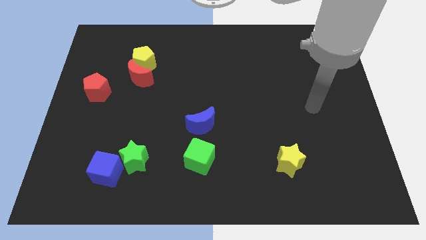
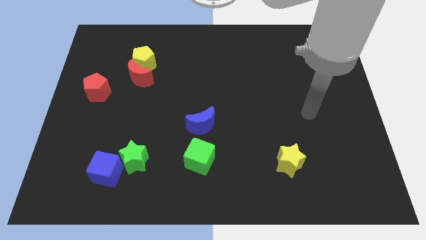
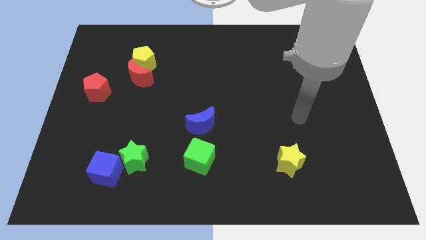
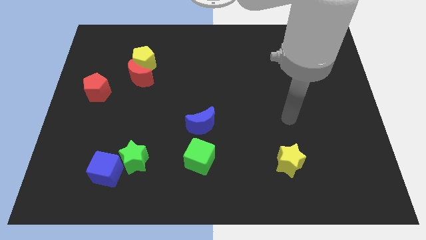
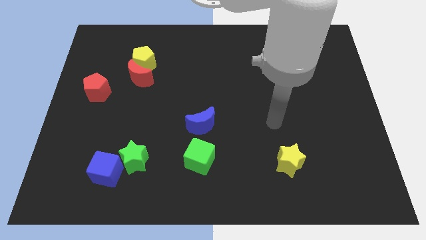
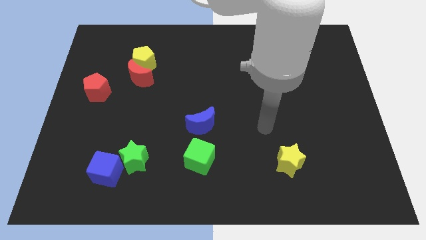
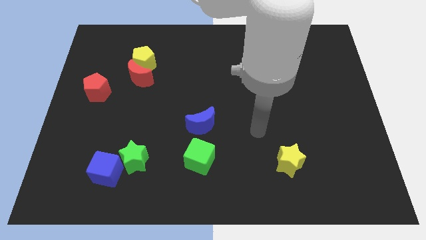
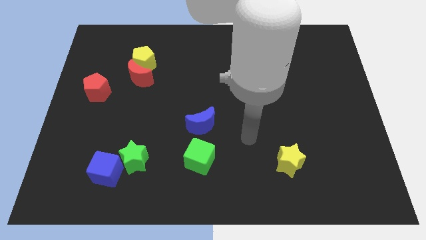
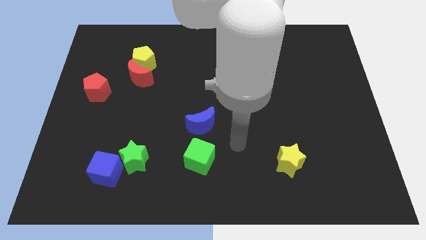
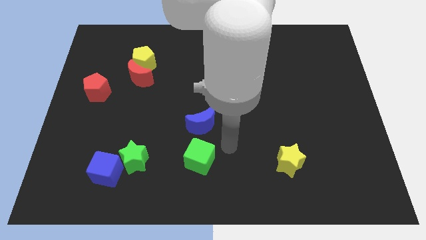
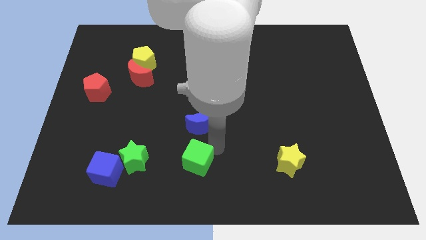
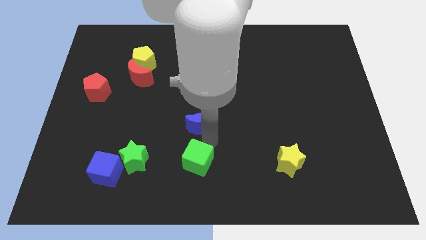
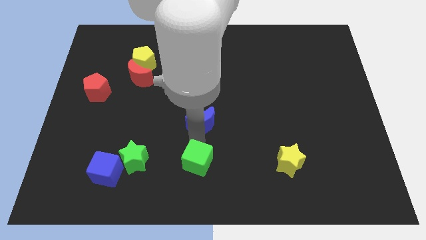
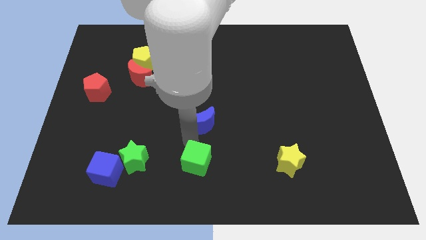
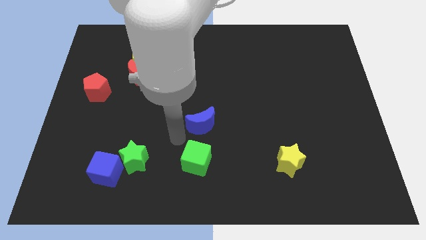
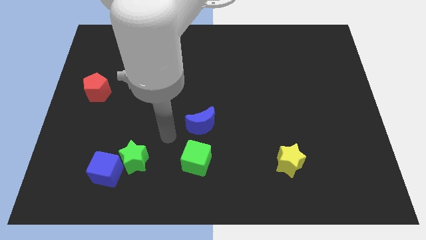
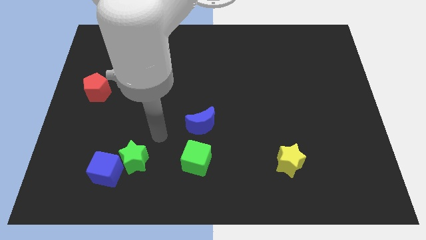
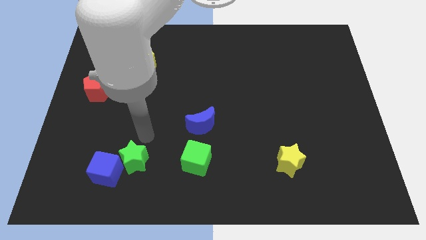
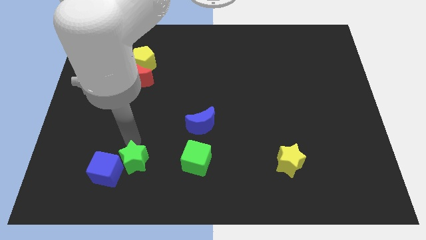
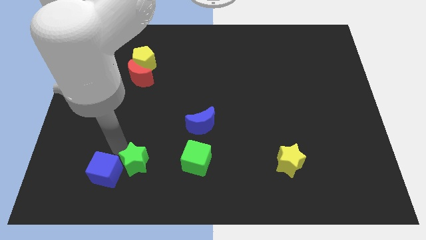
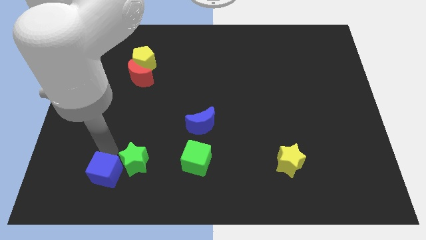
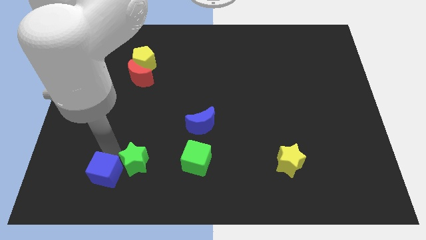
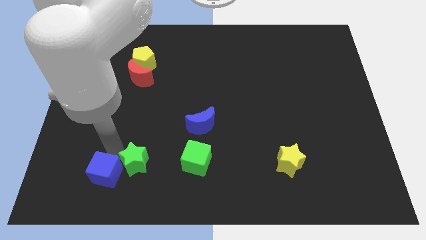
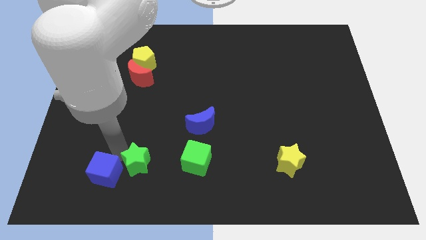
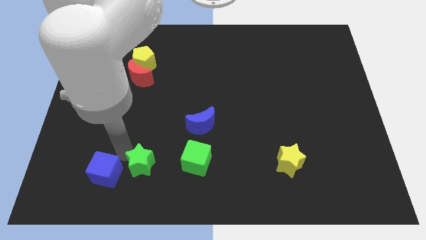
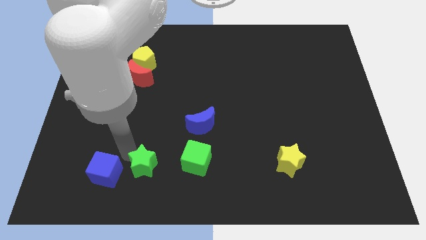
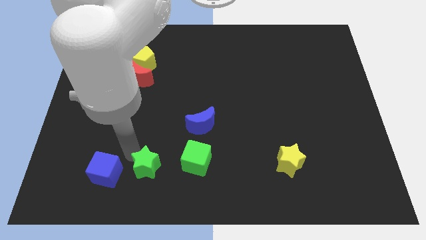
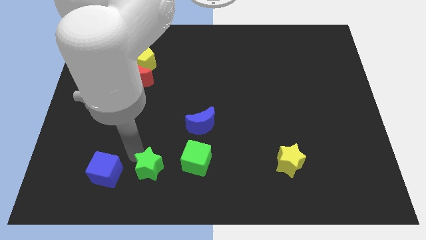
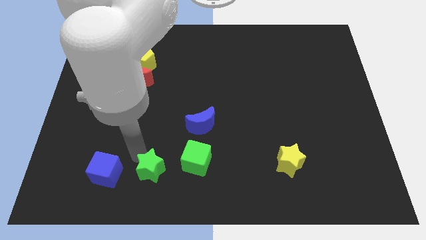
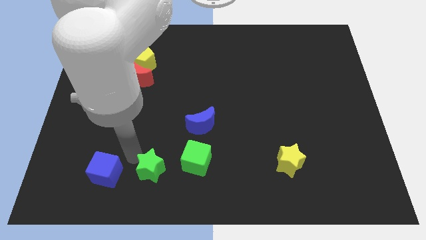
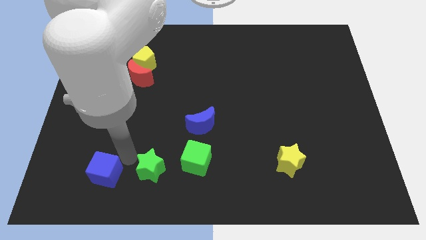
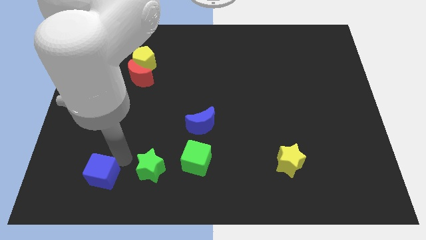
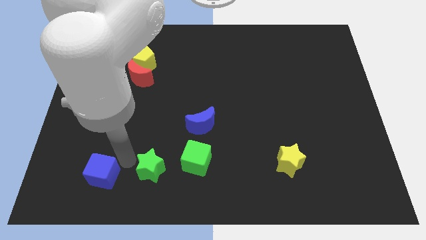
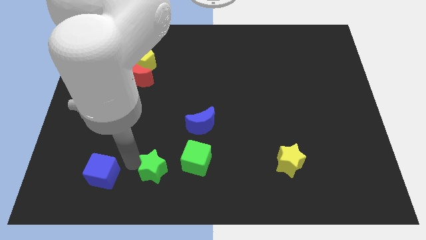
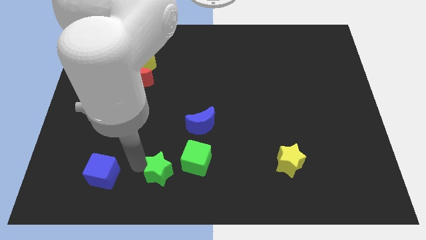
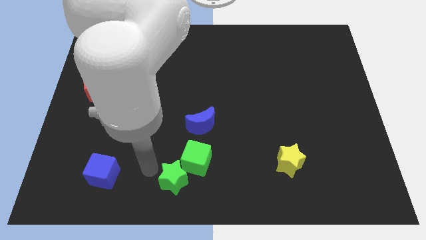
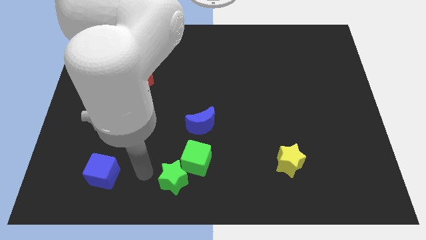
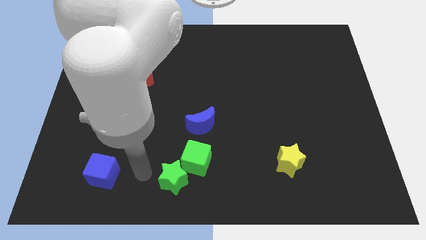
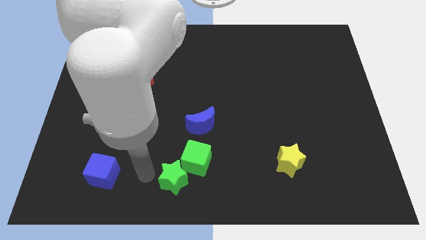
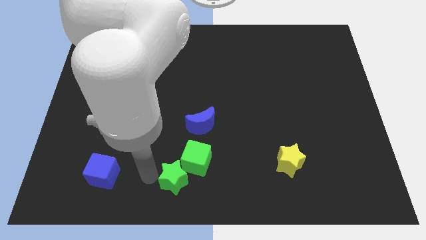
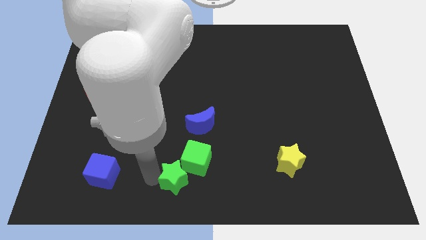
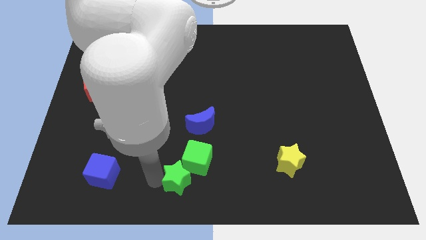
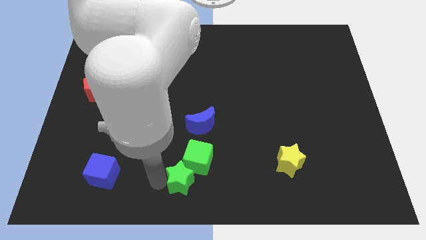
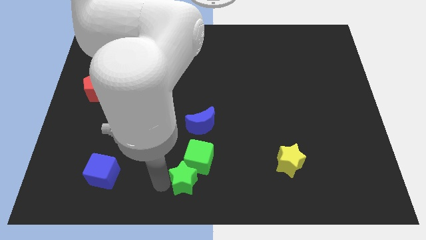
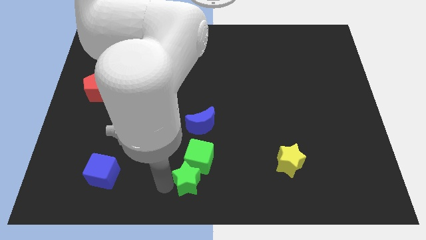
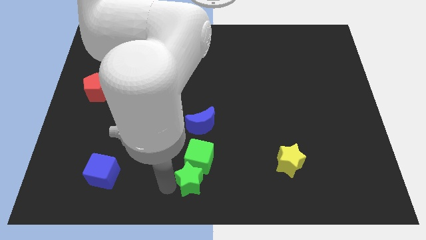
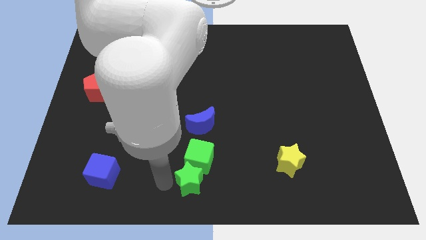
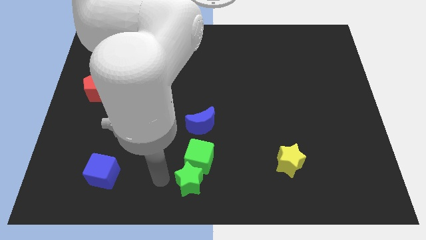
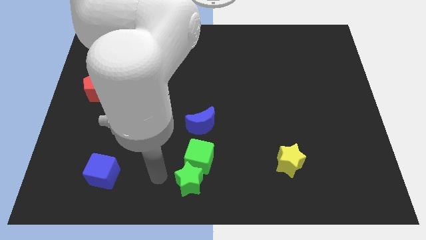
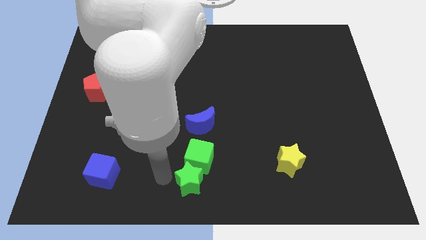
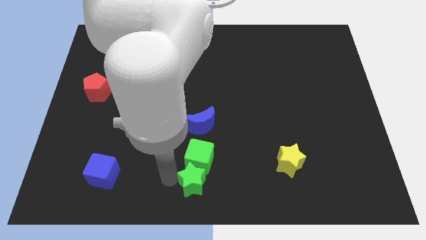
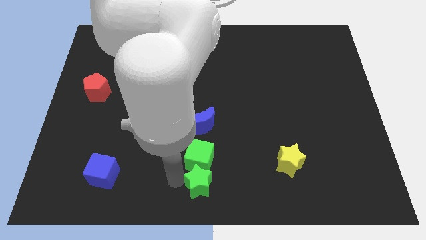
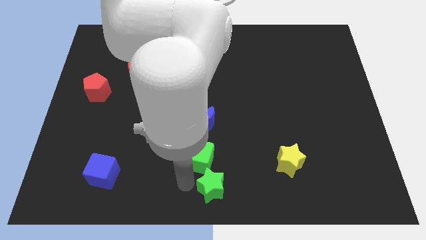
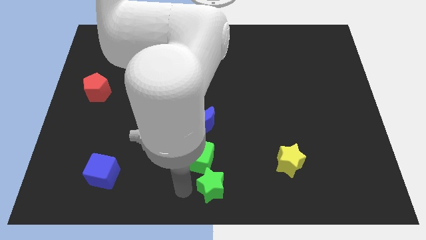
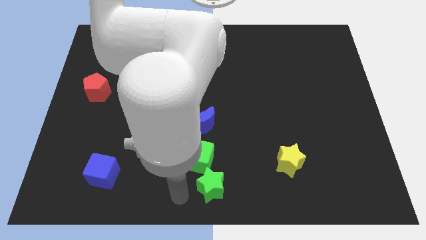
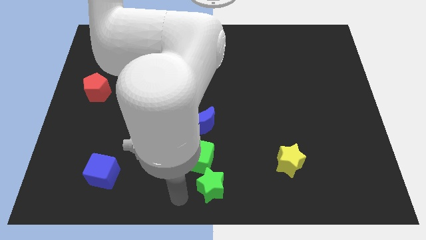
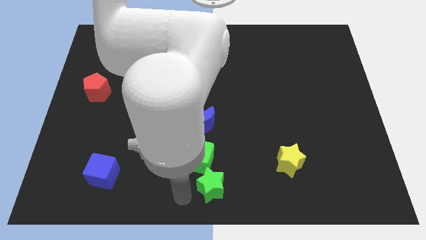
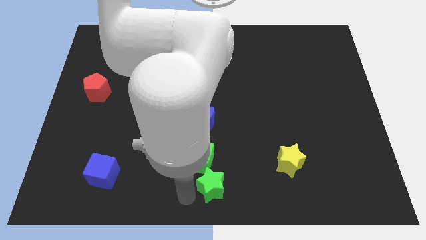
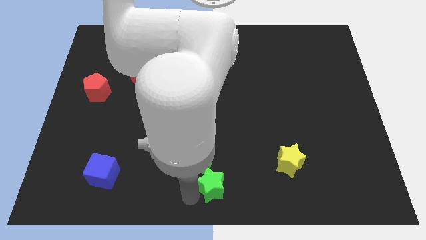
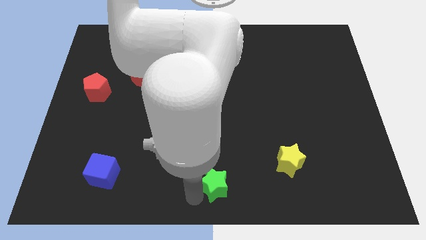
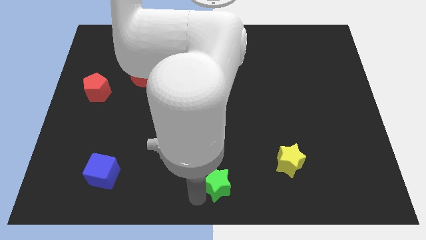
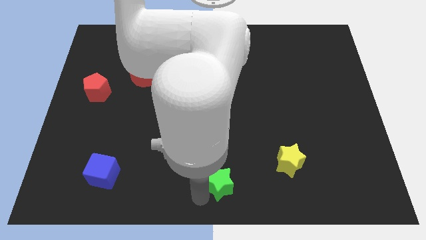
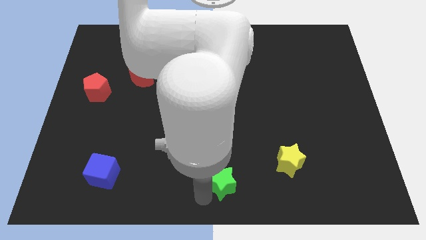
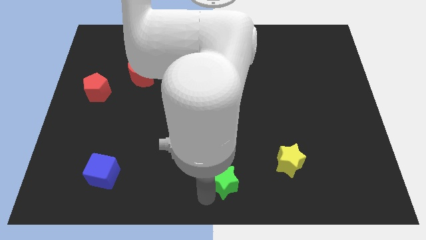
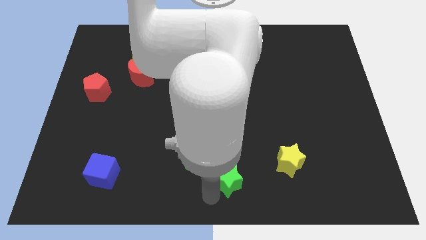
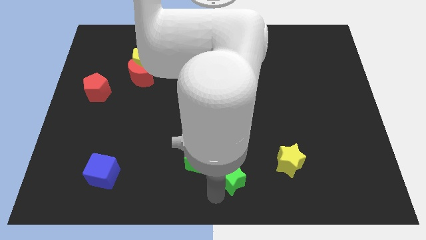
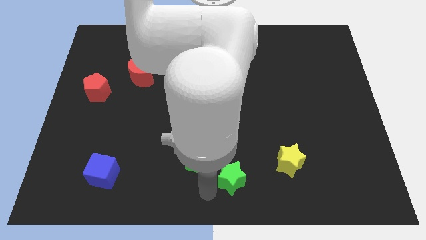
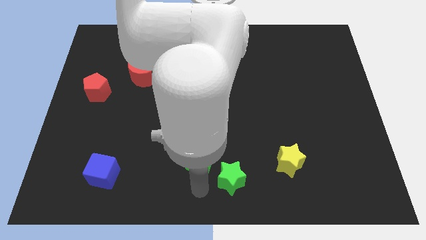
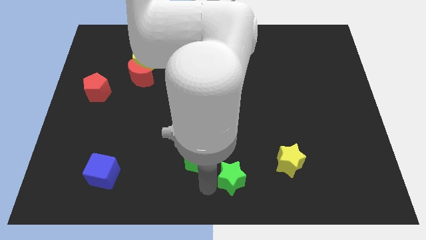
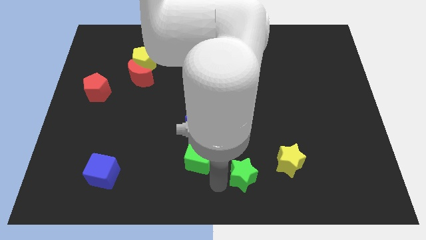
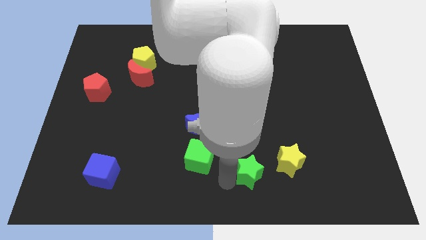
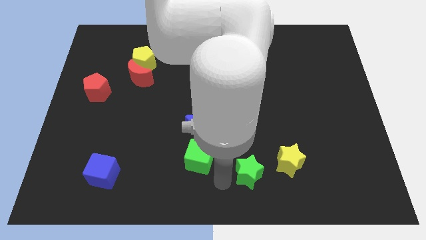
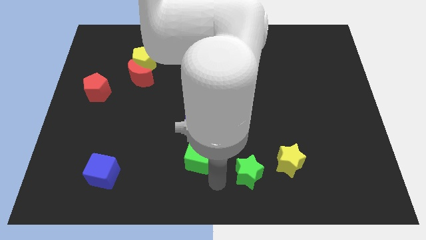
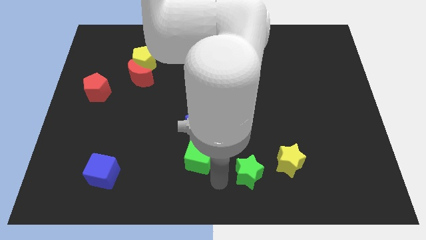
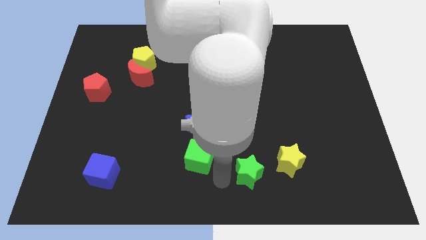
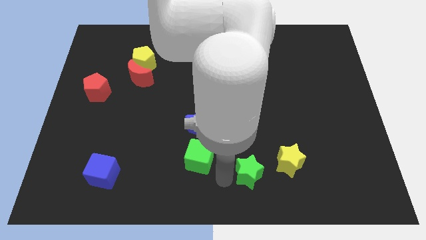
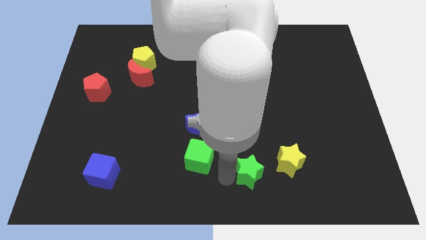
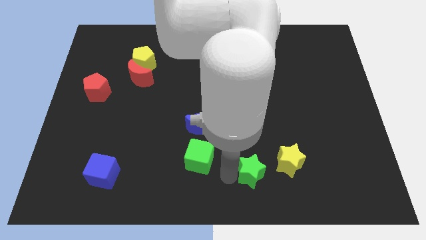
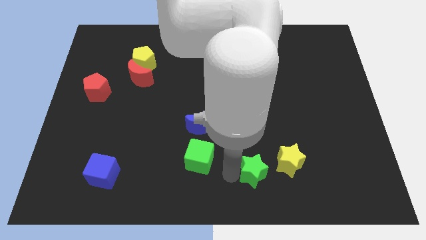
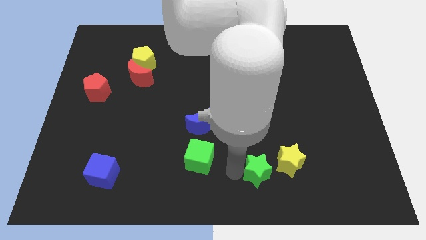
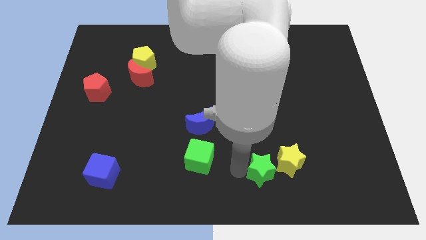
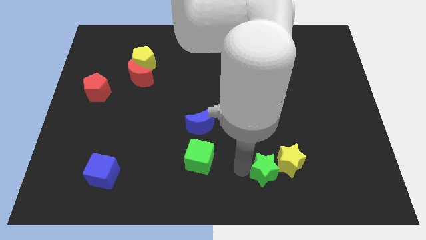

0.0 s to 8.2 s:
slide the green star next to the yellow star
